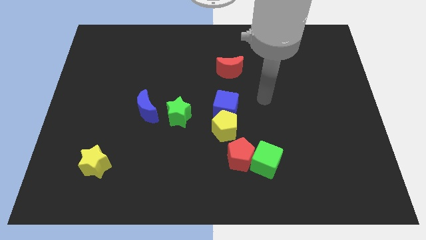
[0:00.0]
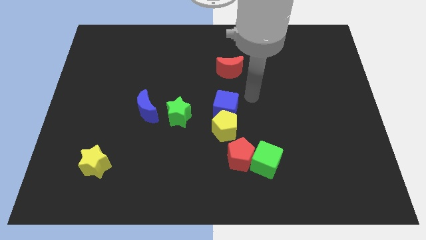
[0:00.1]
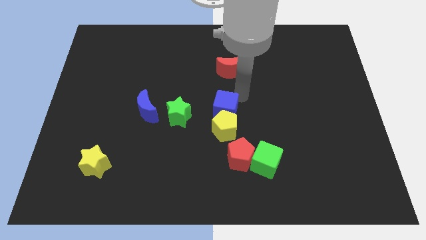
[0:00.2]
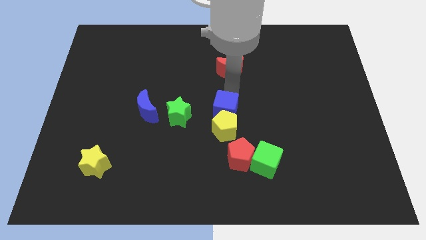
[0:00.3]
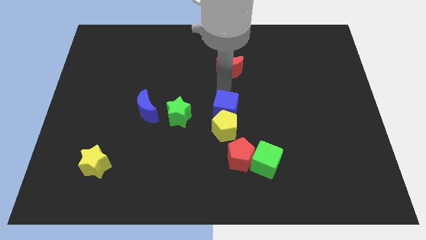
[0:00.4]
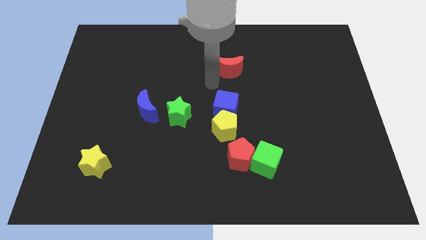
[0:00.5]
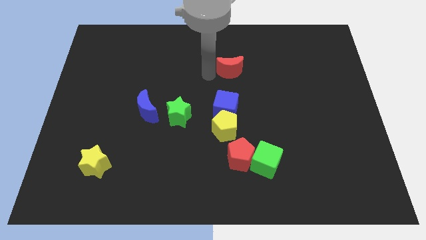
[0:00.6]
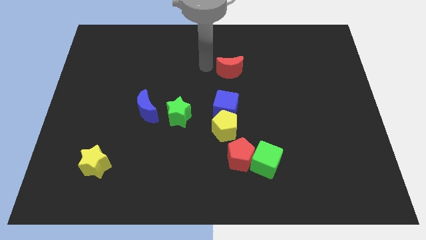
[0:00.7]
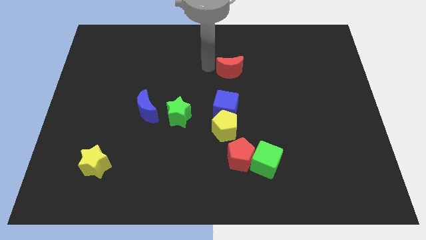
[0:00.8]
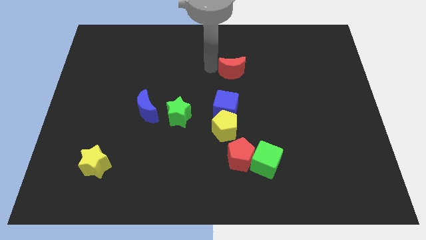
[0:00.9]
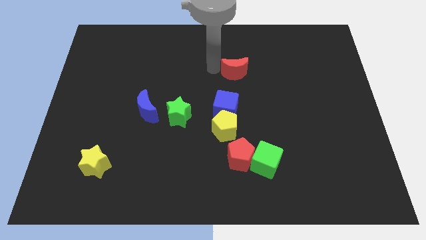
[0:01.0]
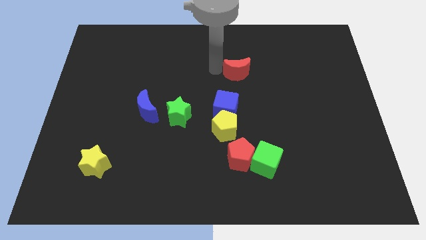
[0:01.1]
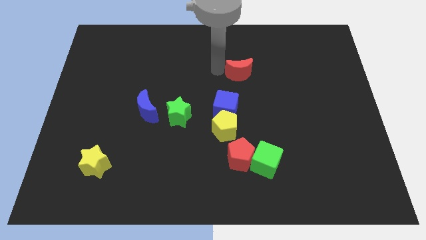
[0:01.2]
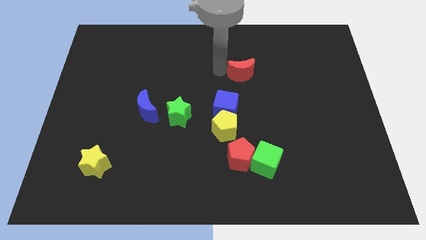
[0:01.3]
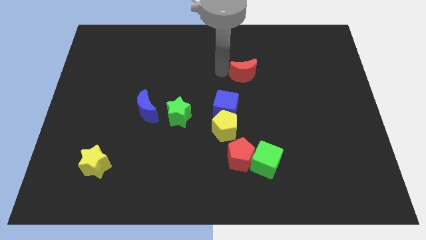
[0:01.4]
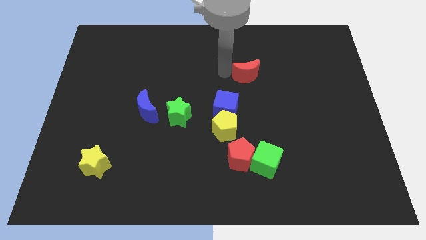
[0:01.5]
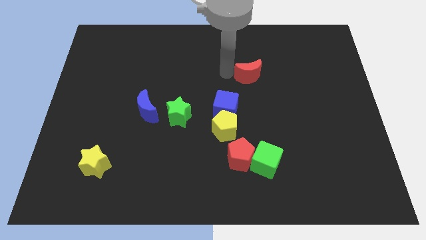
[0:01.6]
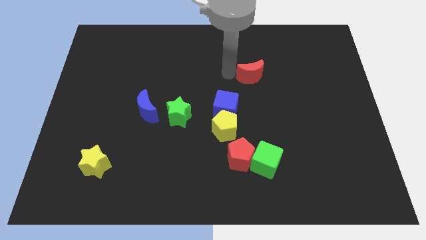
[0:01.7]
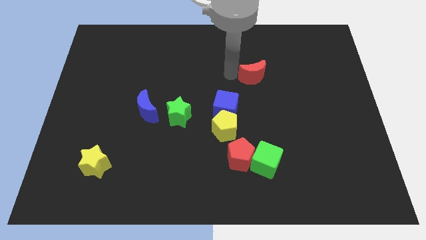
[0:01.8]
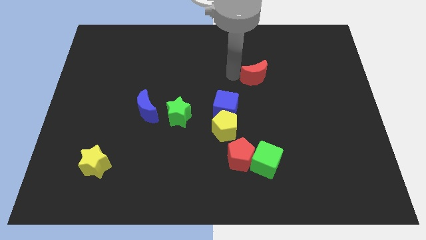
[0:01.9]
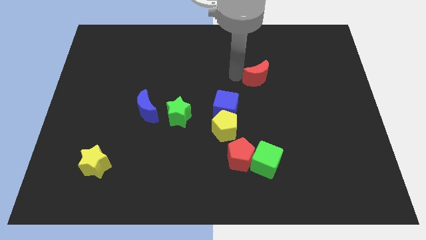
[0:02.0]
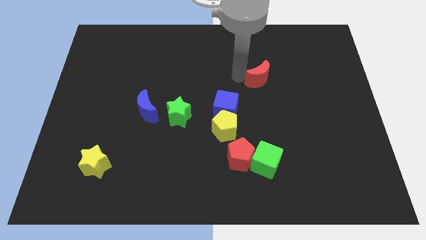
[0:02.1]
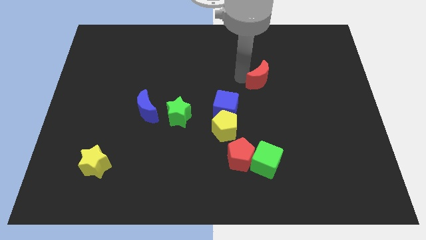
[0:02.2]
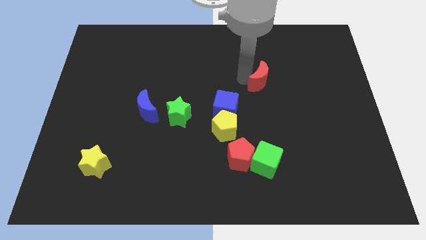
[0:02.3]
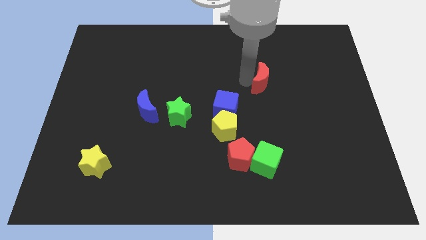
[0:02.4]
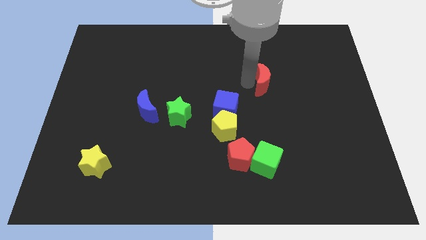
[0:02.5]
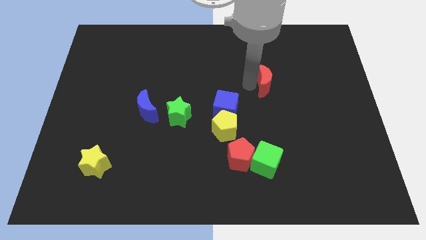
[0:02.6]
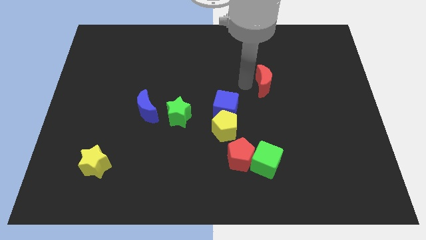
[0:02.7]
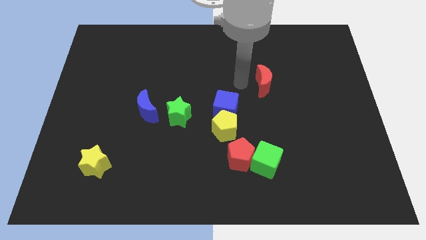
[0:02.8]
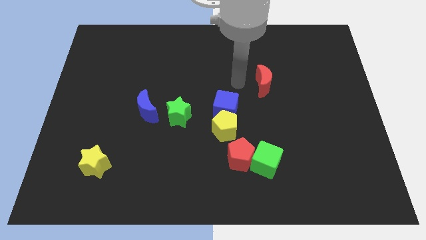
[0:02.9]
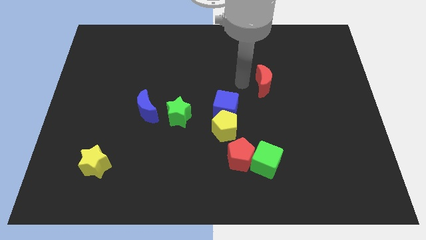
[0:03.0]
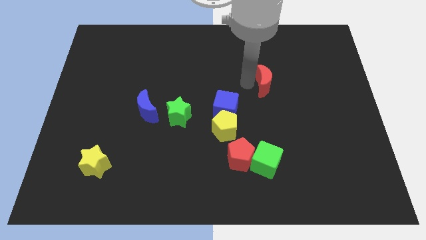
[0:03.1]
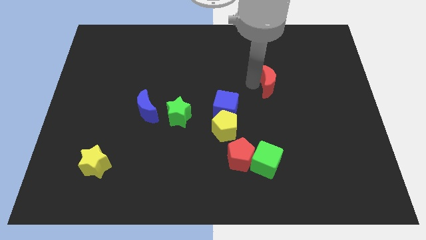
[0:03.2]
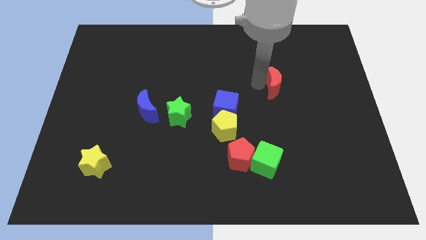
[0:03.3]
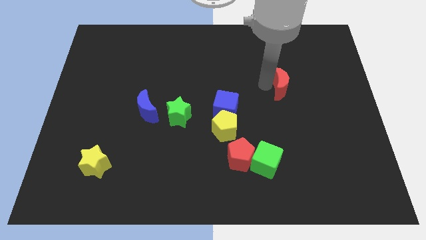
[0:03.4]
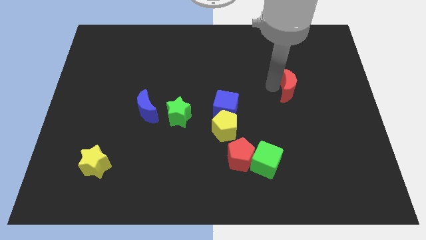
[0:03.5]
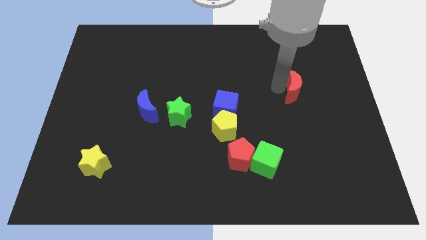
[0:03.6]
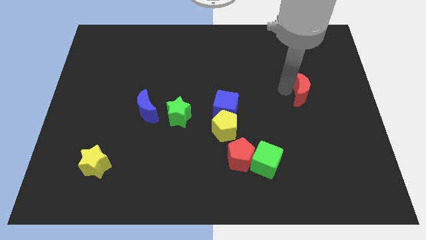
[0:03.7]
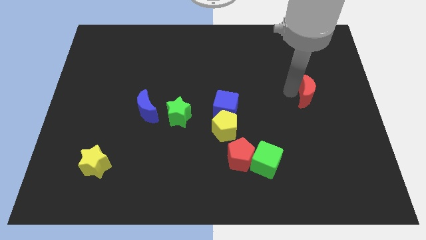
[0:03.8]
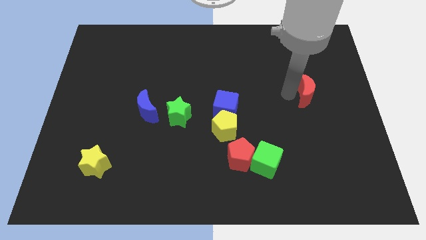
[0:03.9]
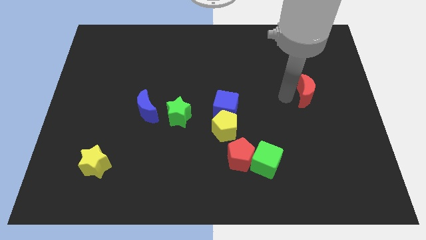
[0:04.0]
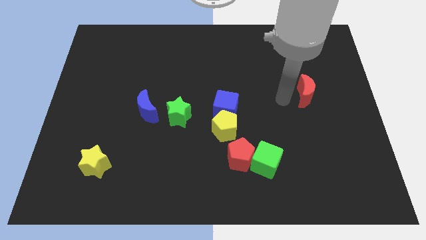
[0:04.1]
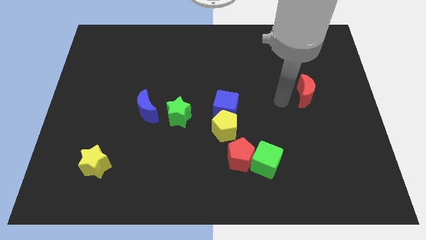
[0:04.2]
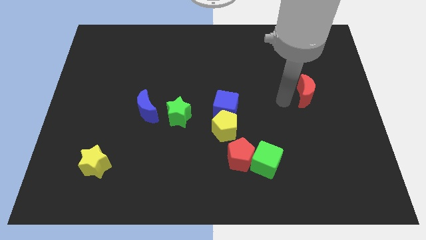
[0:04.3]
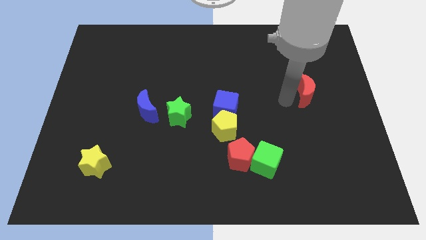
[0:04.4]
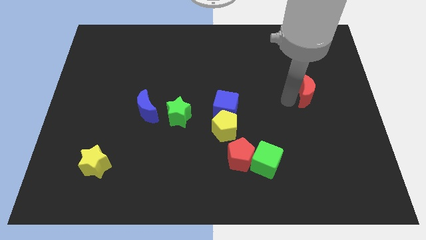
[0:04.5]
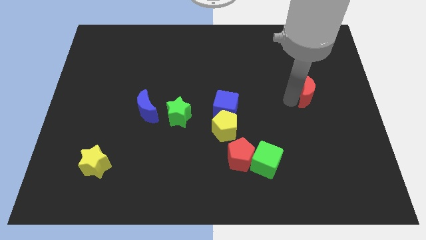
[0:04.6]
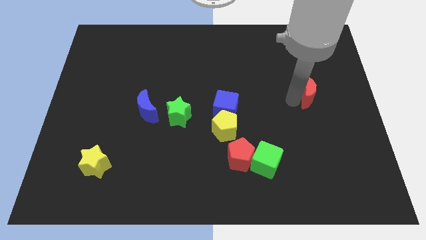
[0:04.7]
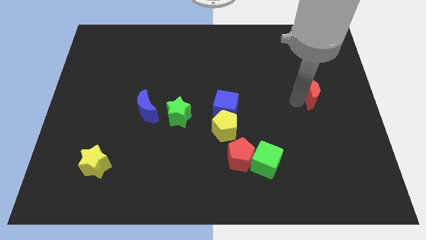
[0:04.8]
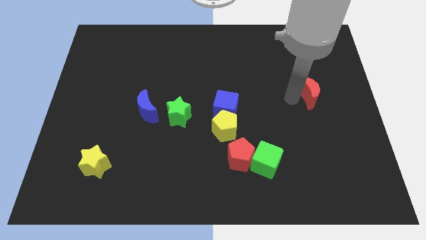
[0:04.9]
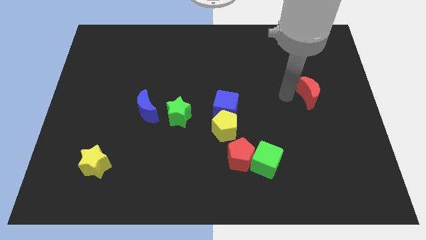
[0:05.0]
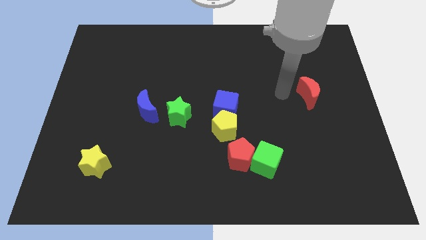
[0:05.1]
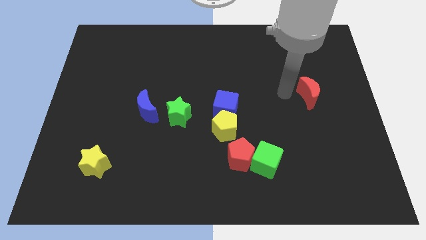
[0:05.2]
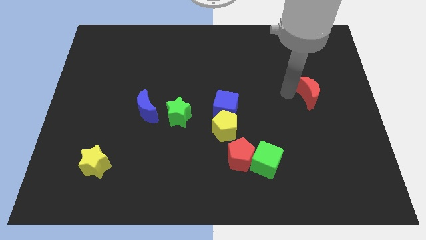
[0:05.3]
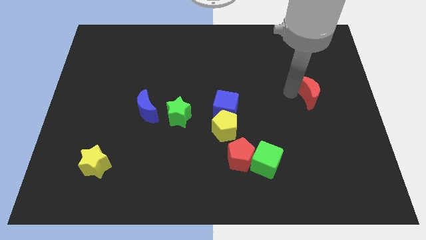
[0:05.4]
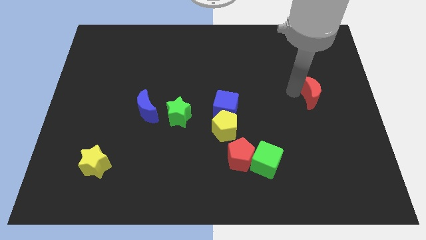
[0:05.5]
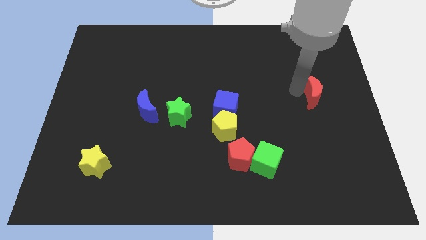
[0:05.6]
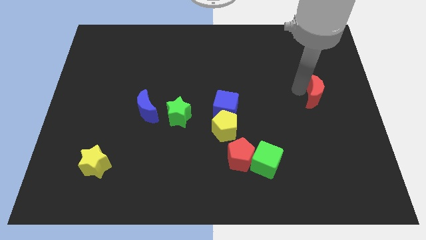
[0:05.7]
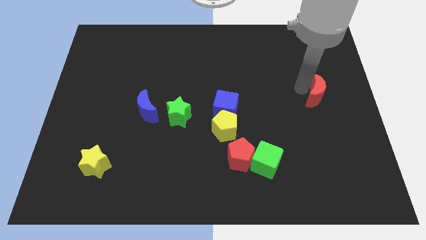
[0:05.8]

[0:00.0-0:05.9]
push the red moon to the center right
